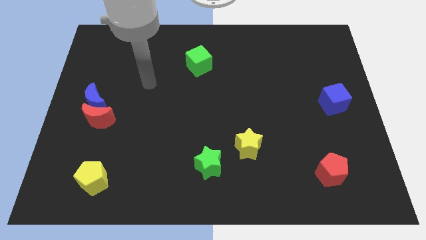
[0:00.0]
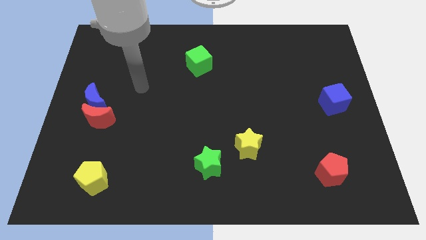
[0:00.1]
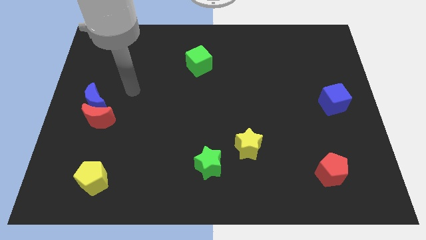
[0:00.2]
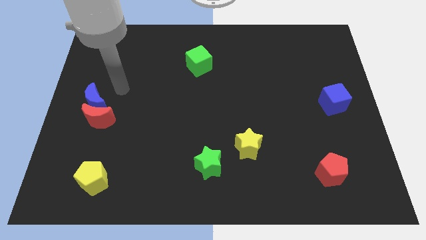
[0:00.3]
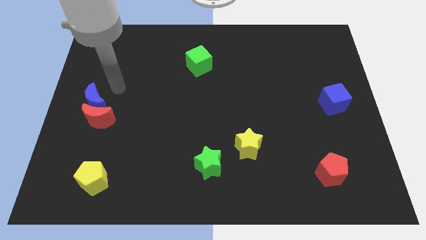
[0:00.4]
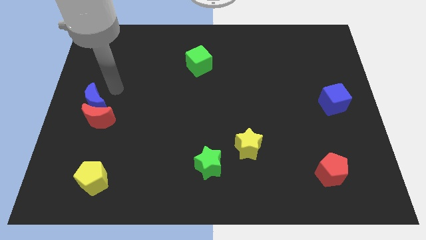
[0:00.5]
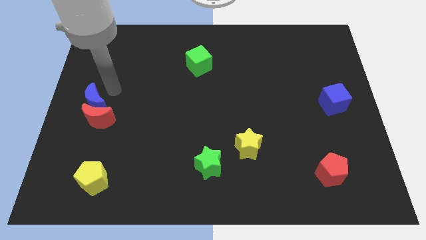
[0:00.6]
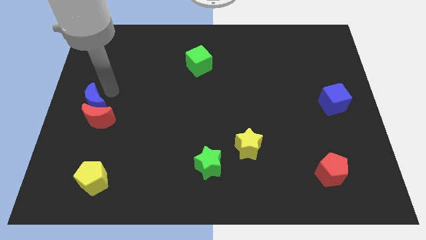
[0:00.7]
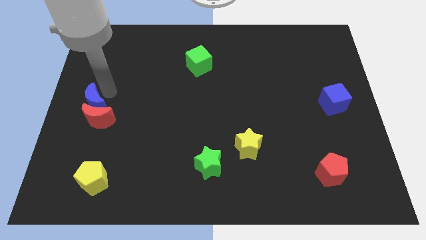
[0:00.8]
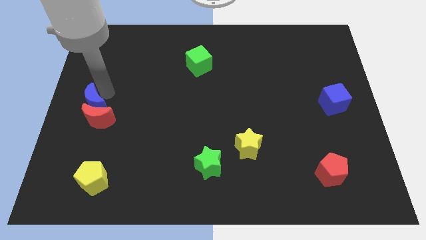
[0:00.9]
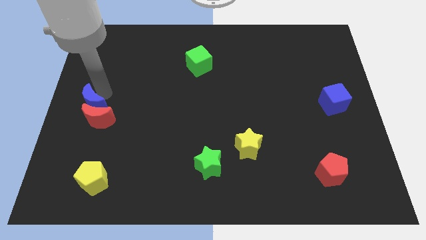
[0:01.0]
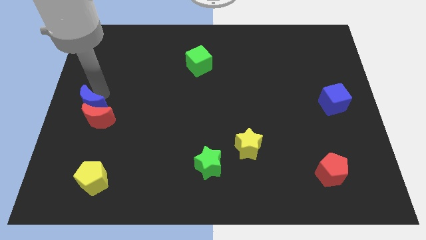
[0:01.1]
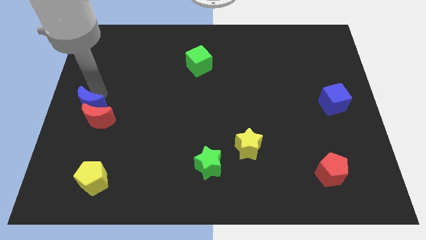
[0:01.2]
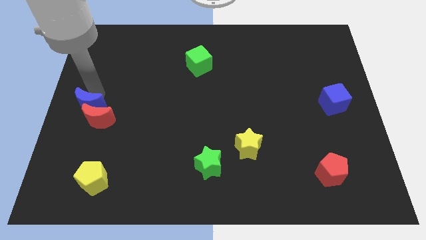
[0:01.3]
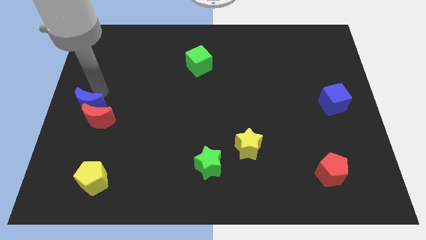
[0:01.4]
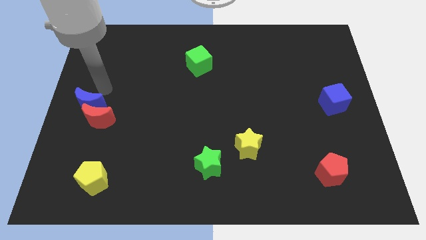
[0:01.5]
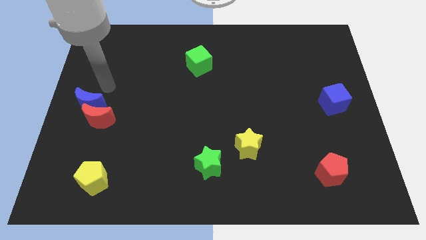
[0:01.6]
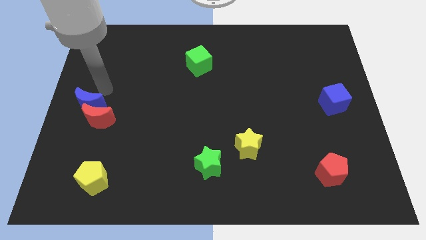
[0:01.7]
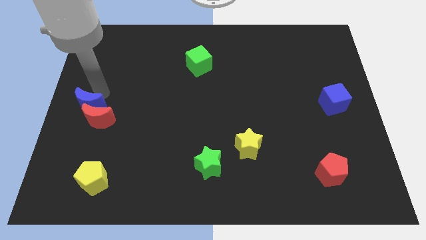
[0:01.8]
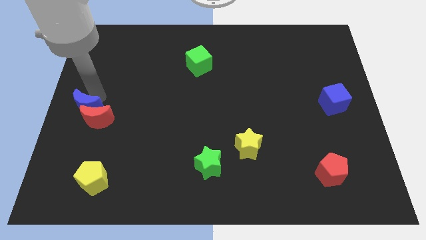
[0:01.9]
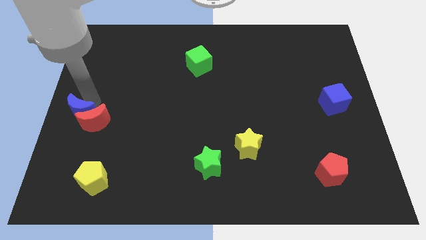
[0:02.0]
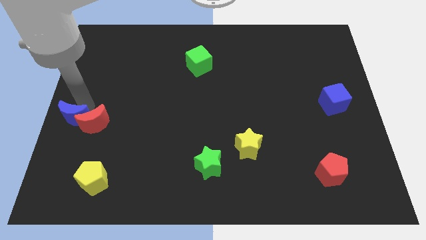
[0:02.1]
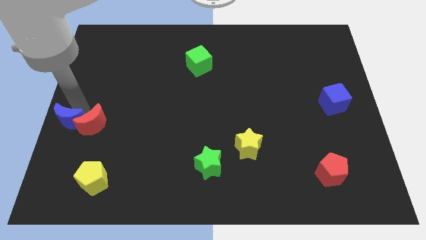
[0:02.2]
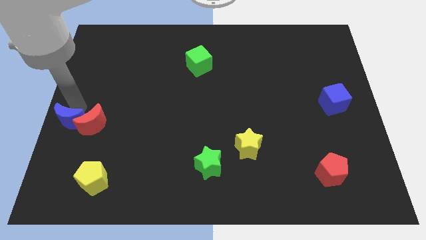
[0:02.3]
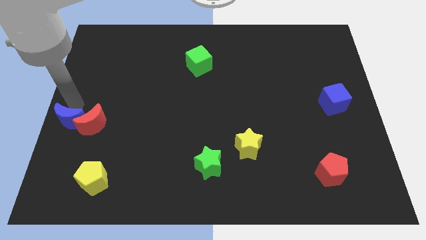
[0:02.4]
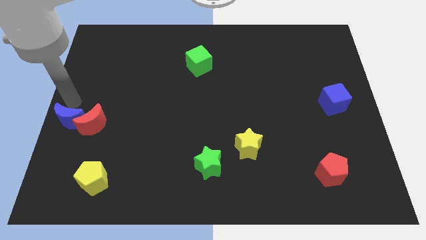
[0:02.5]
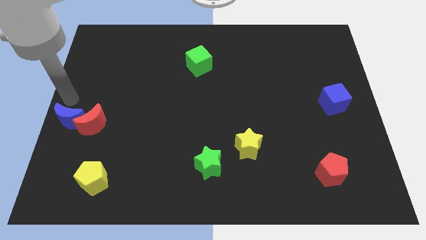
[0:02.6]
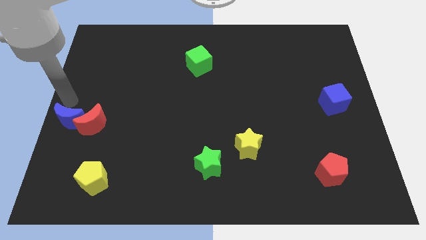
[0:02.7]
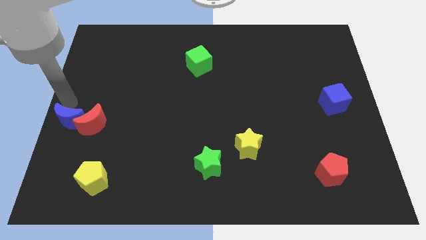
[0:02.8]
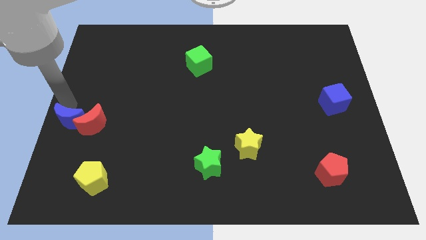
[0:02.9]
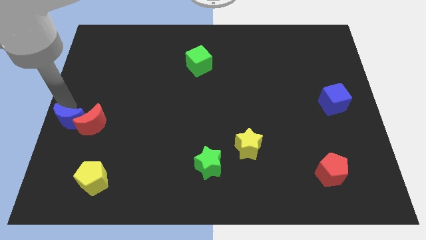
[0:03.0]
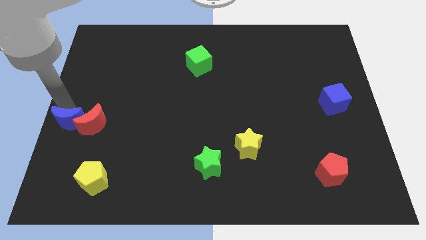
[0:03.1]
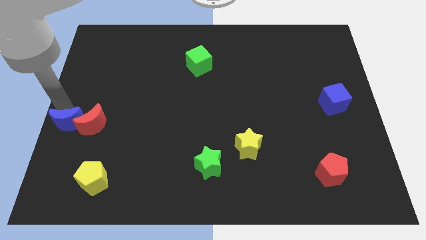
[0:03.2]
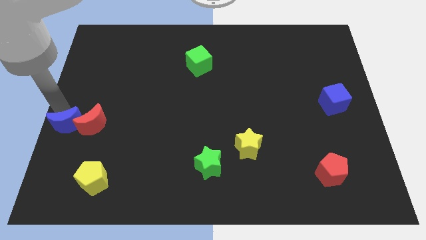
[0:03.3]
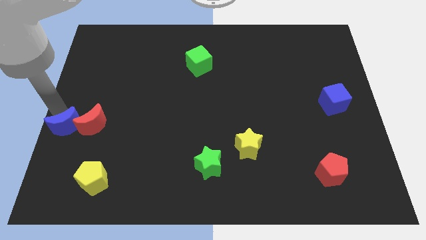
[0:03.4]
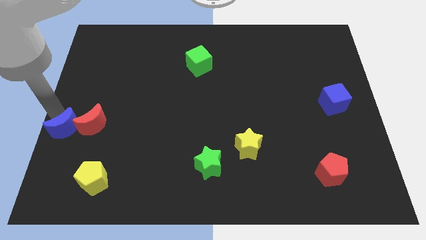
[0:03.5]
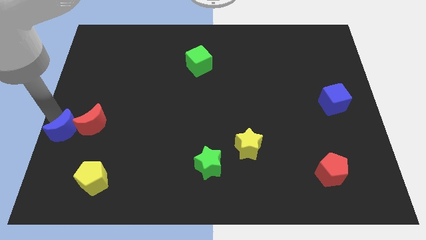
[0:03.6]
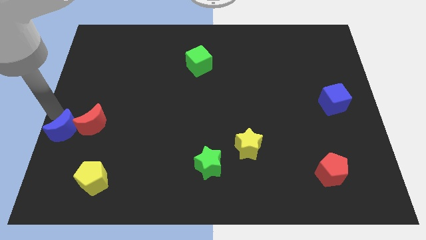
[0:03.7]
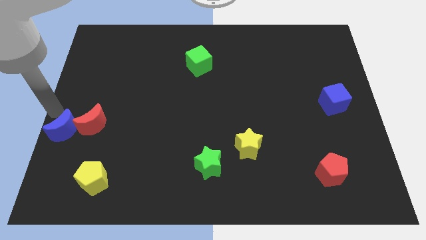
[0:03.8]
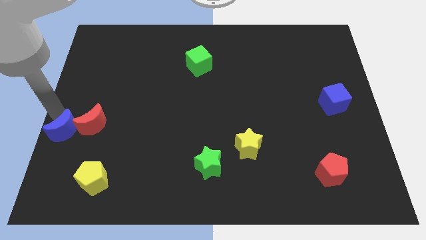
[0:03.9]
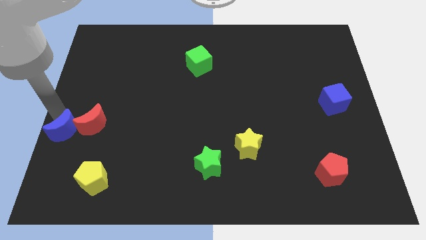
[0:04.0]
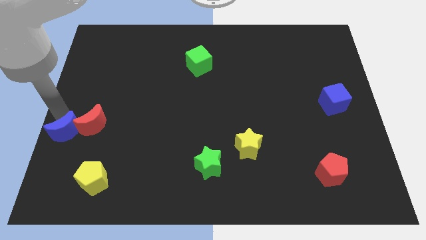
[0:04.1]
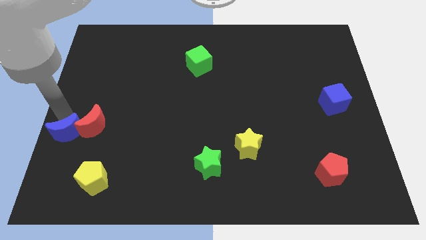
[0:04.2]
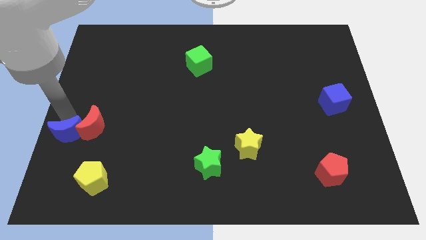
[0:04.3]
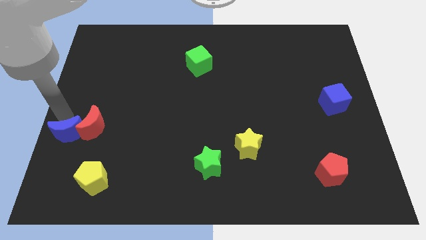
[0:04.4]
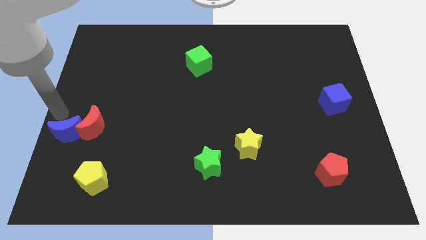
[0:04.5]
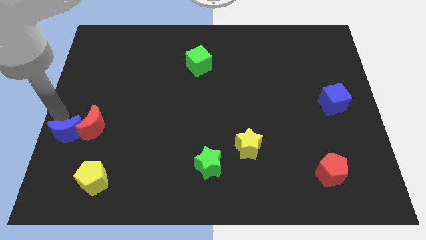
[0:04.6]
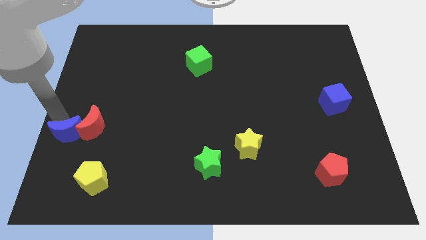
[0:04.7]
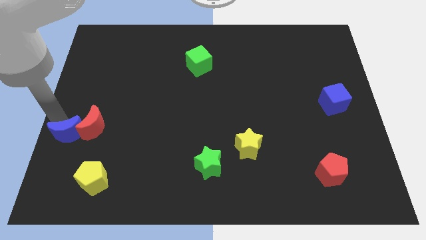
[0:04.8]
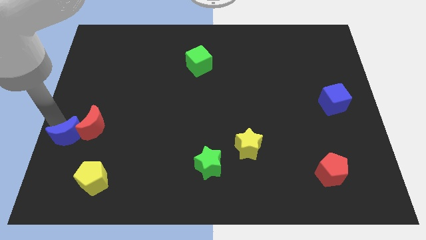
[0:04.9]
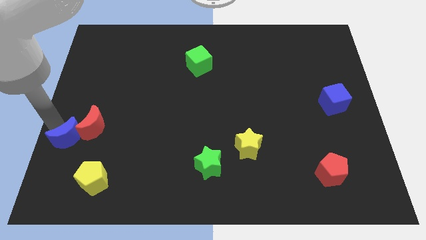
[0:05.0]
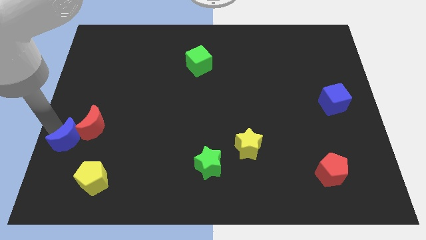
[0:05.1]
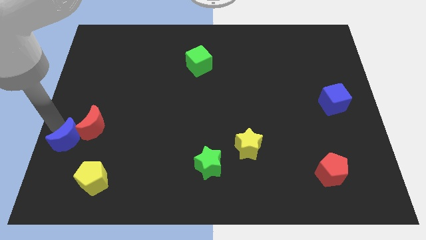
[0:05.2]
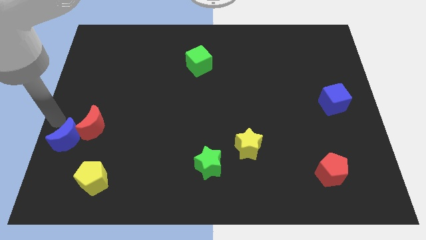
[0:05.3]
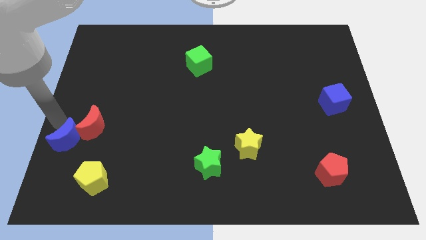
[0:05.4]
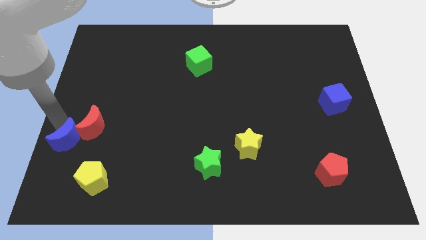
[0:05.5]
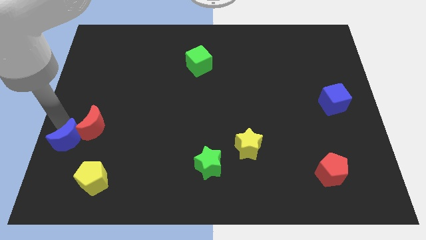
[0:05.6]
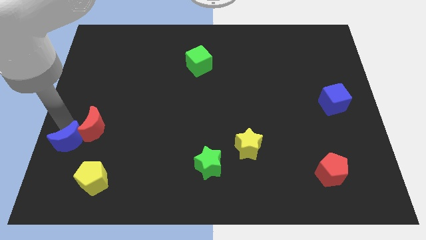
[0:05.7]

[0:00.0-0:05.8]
push the blue moon below the red moon

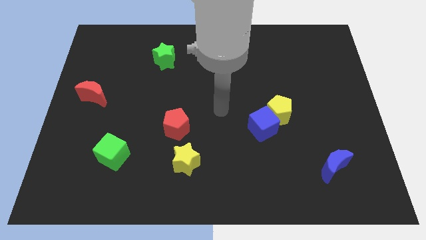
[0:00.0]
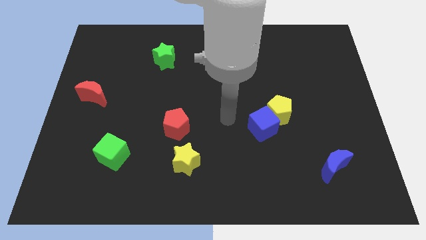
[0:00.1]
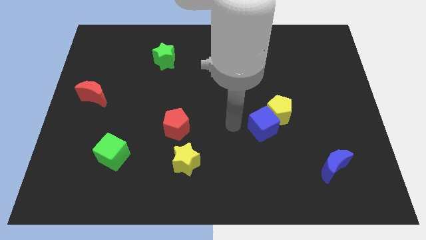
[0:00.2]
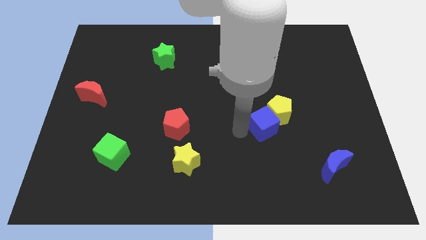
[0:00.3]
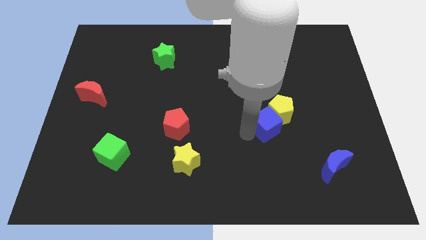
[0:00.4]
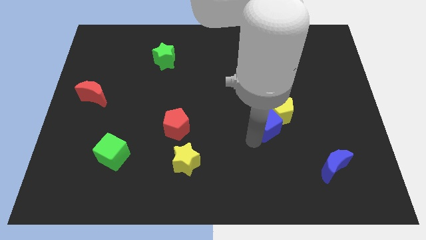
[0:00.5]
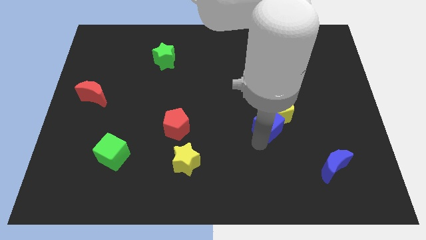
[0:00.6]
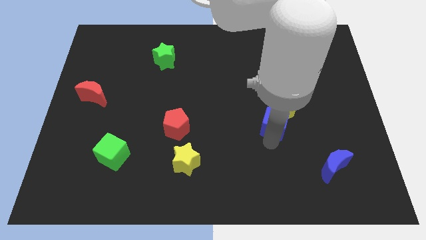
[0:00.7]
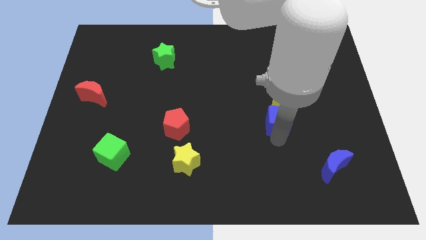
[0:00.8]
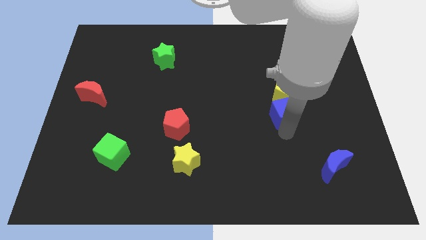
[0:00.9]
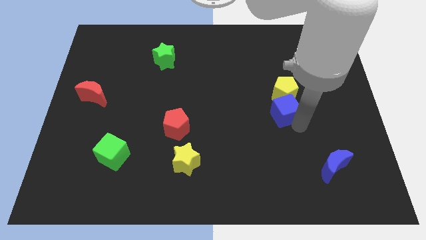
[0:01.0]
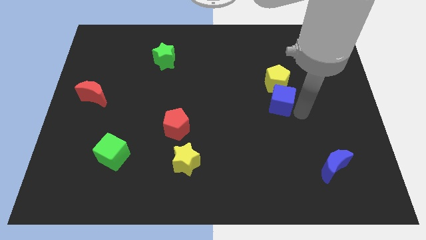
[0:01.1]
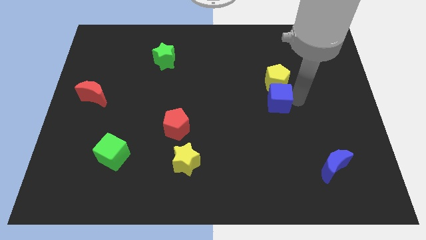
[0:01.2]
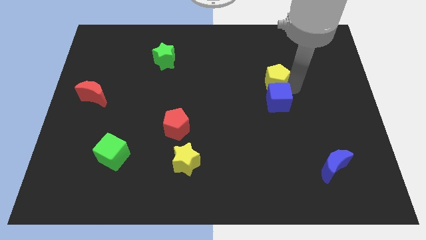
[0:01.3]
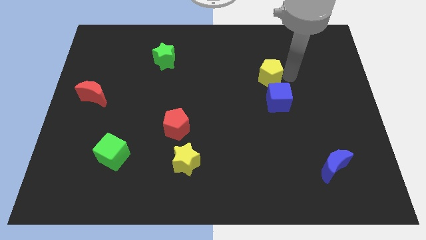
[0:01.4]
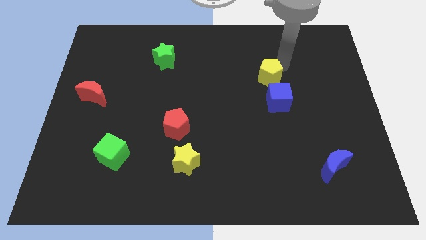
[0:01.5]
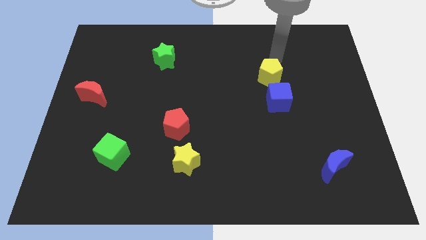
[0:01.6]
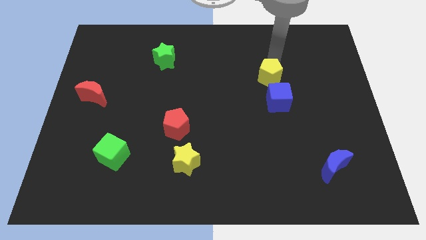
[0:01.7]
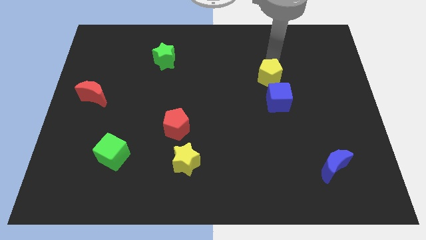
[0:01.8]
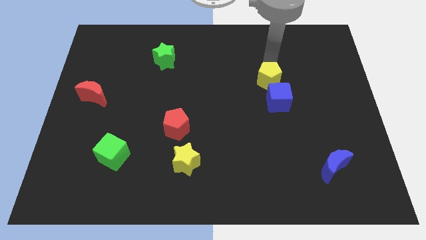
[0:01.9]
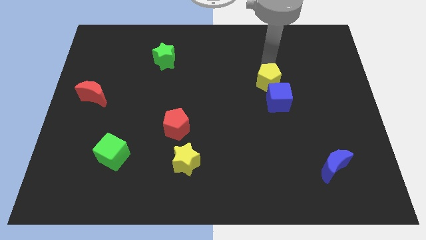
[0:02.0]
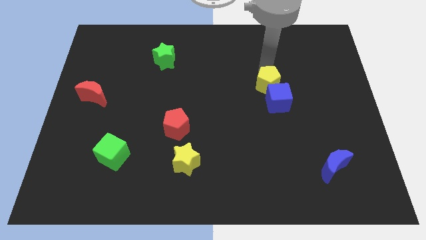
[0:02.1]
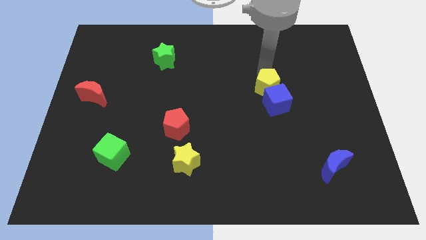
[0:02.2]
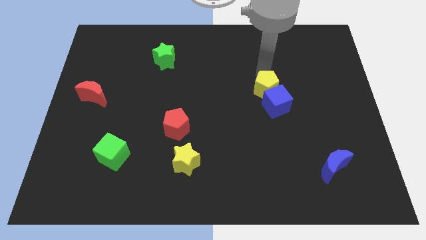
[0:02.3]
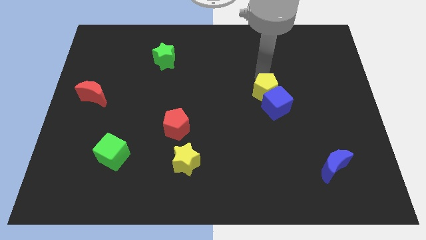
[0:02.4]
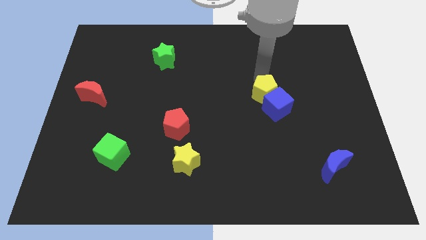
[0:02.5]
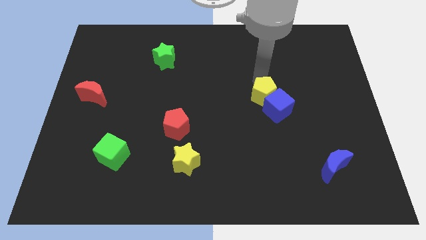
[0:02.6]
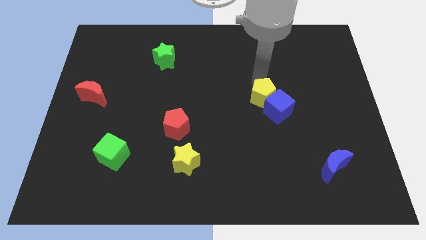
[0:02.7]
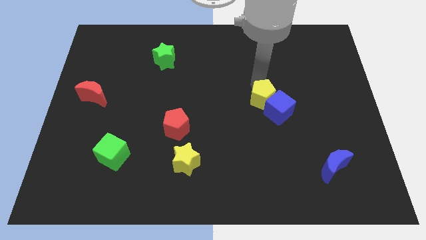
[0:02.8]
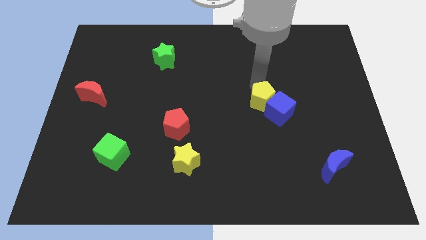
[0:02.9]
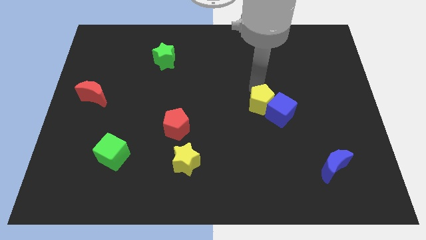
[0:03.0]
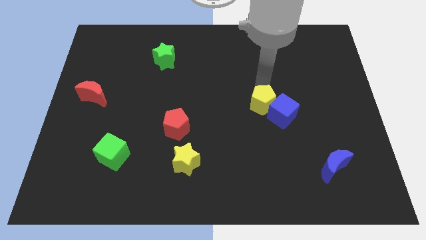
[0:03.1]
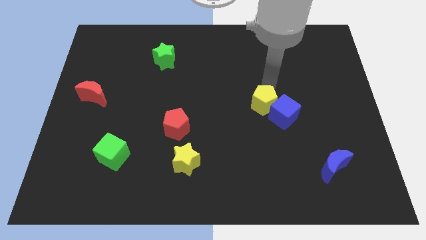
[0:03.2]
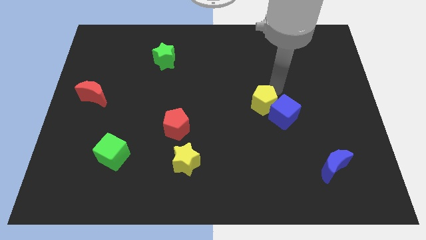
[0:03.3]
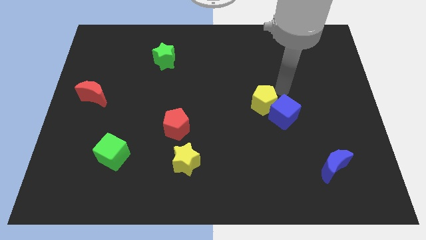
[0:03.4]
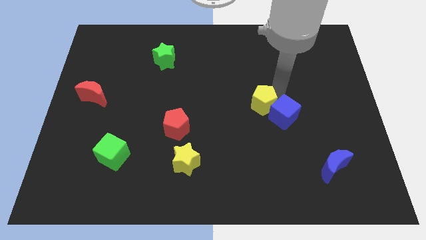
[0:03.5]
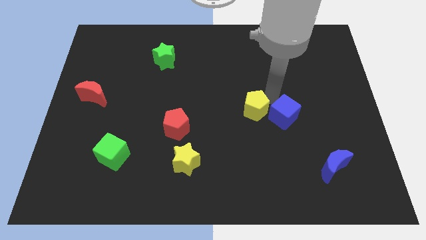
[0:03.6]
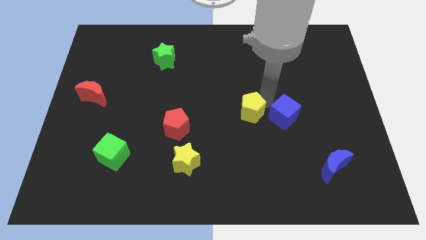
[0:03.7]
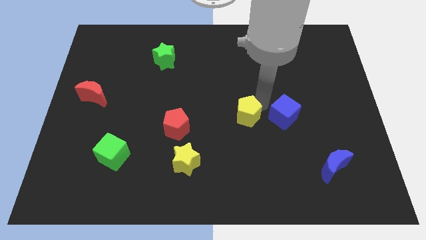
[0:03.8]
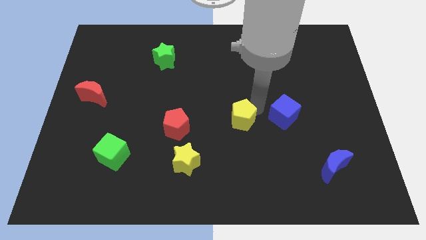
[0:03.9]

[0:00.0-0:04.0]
put the yellow pentagon just right of the red pentagon
